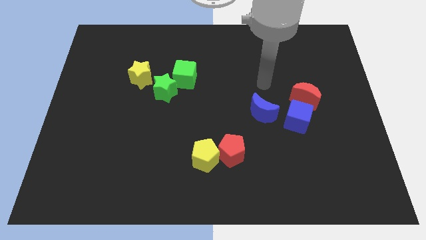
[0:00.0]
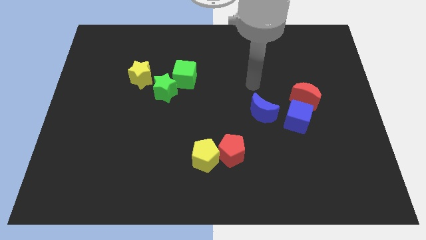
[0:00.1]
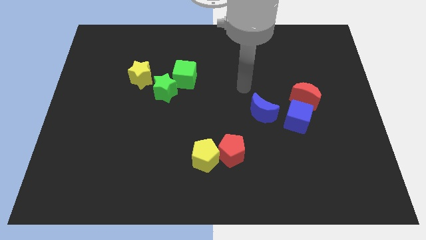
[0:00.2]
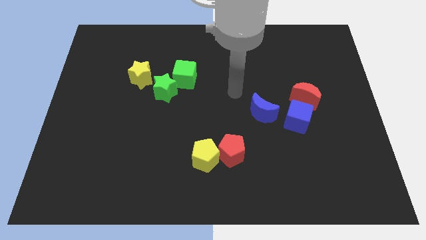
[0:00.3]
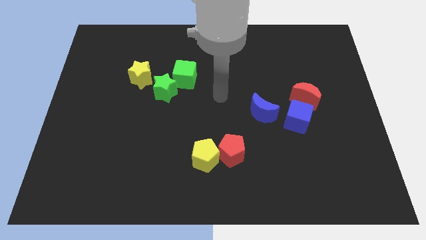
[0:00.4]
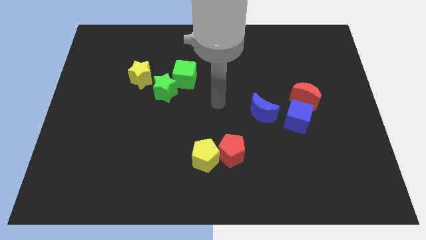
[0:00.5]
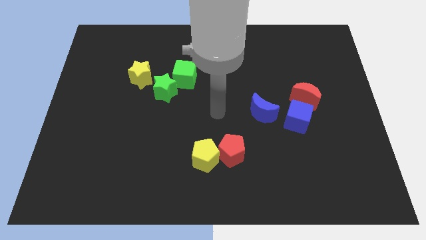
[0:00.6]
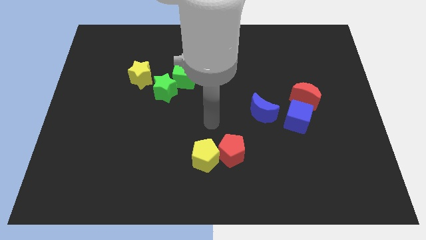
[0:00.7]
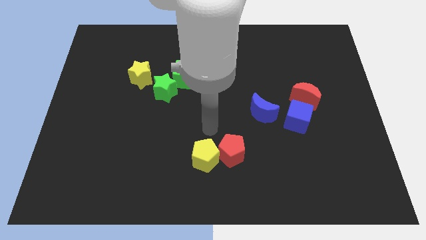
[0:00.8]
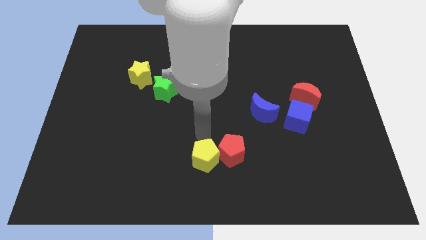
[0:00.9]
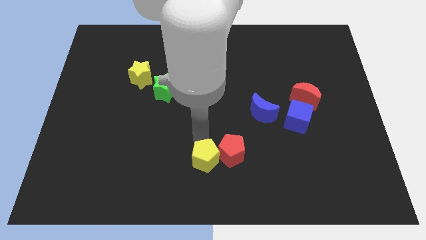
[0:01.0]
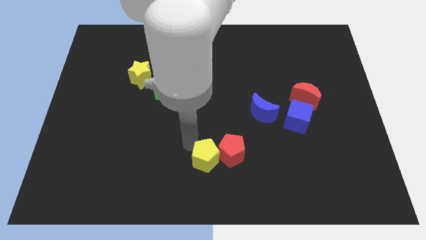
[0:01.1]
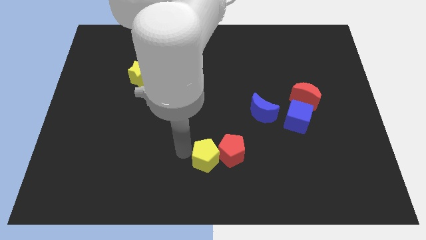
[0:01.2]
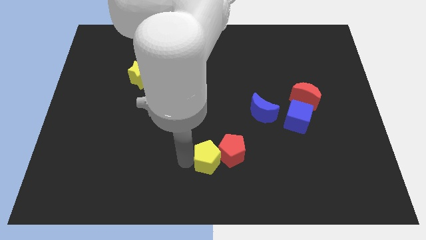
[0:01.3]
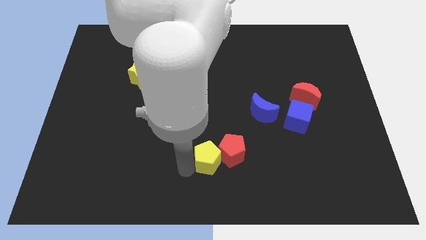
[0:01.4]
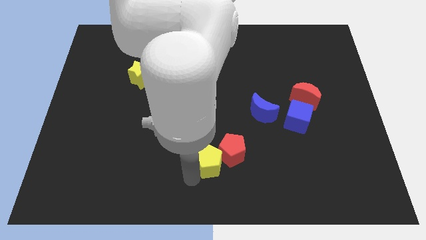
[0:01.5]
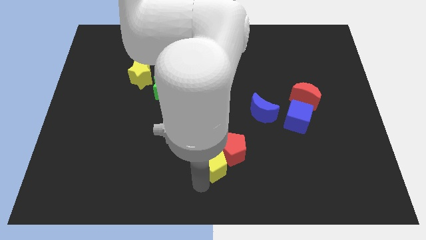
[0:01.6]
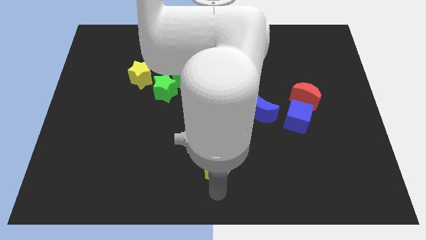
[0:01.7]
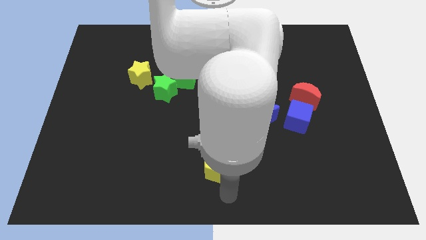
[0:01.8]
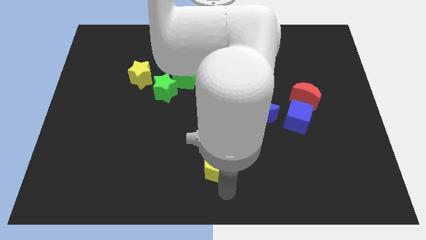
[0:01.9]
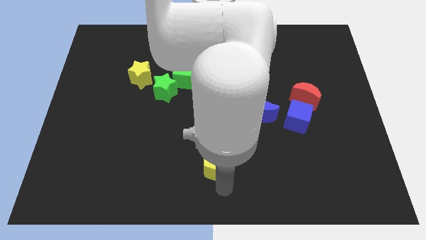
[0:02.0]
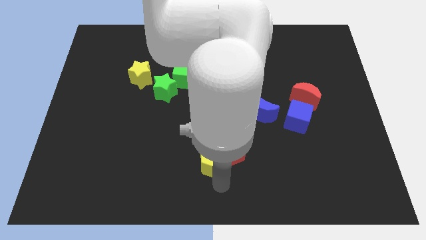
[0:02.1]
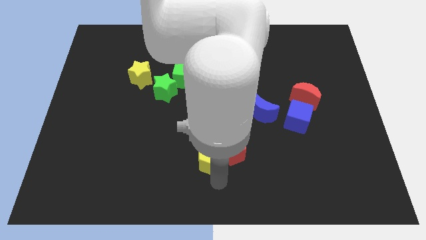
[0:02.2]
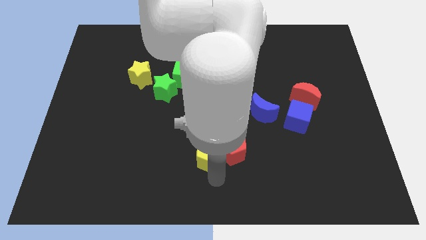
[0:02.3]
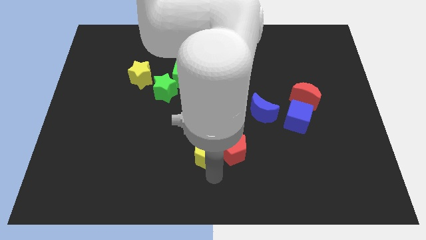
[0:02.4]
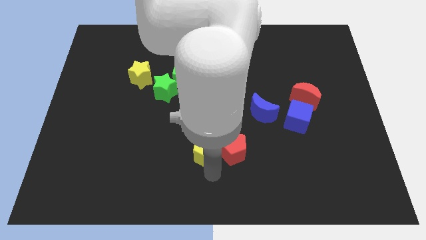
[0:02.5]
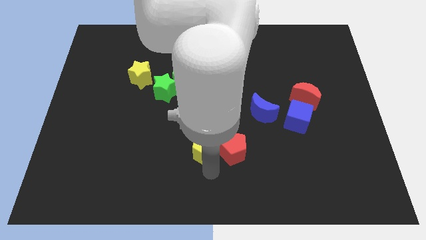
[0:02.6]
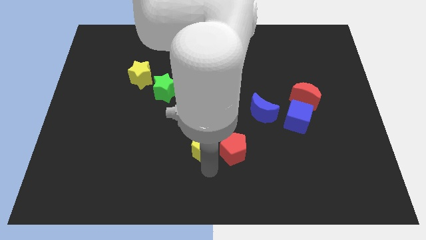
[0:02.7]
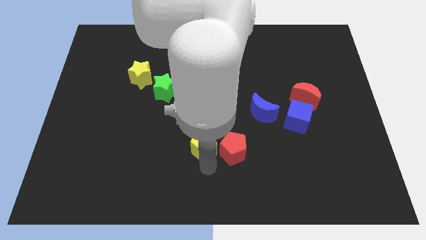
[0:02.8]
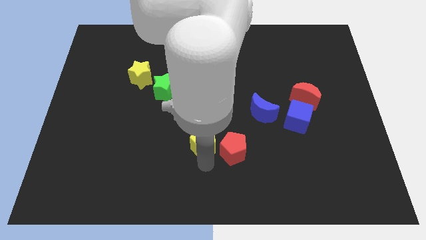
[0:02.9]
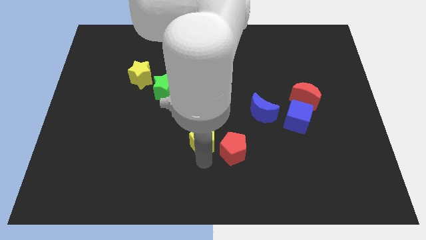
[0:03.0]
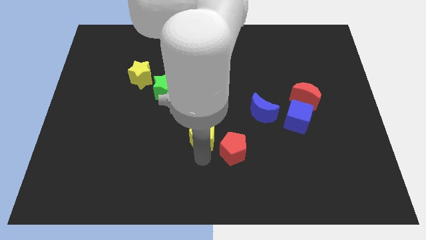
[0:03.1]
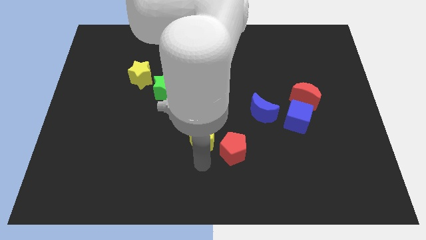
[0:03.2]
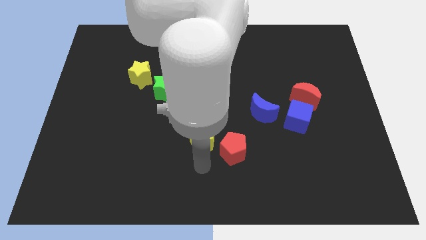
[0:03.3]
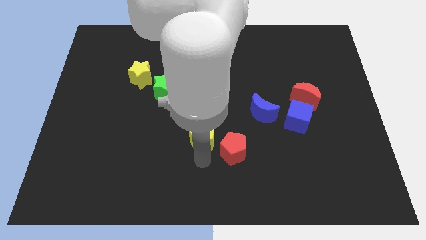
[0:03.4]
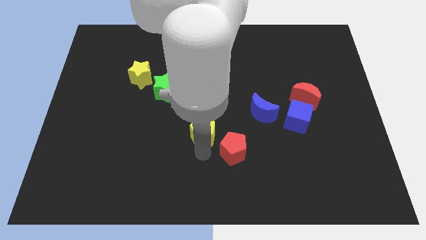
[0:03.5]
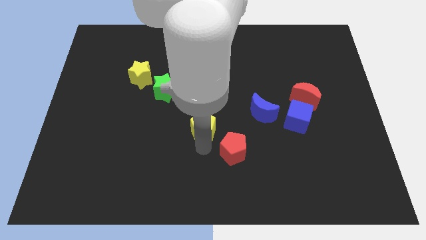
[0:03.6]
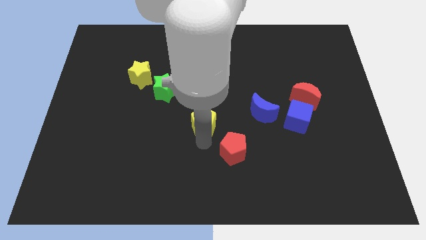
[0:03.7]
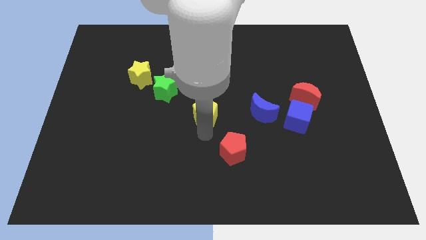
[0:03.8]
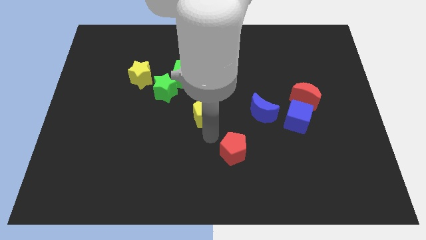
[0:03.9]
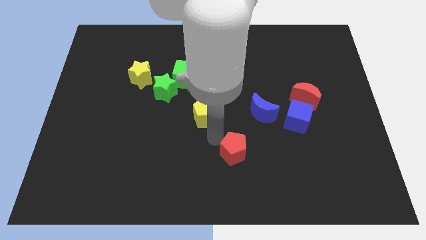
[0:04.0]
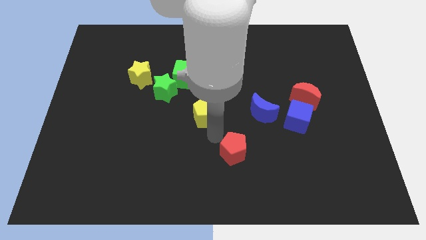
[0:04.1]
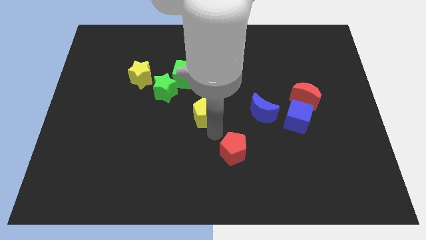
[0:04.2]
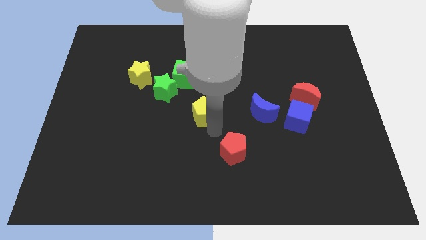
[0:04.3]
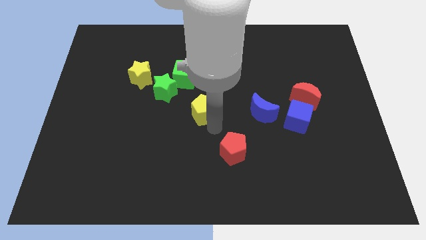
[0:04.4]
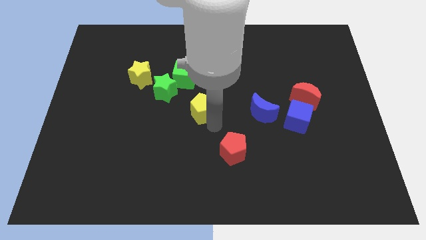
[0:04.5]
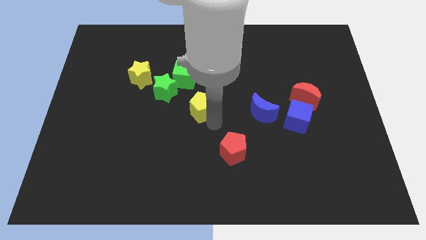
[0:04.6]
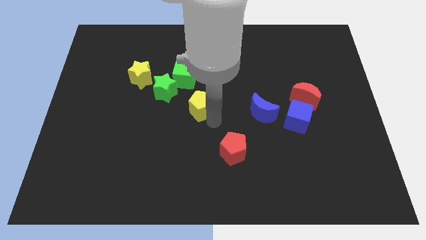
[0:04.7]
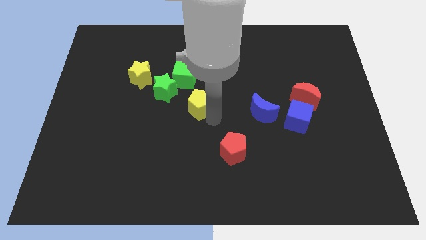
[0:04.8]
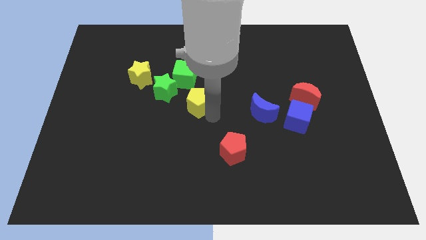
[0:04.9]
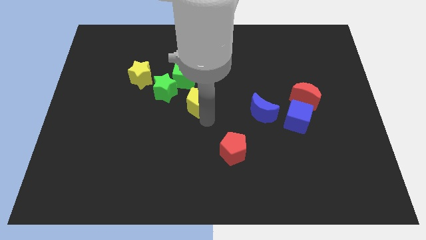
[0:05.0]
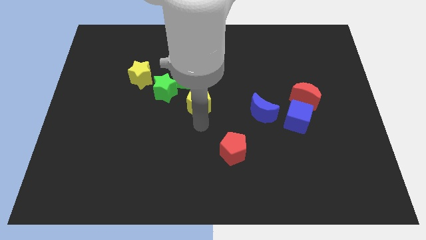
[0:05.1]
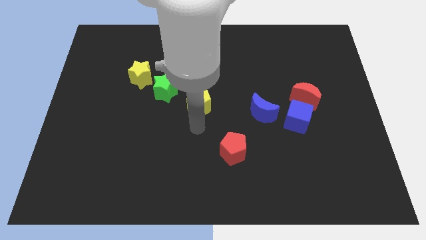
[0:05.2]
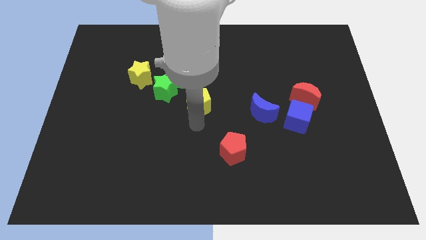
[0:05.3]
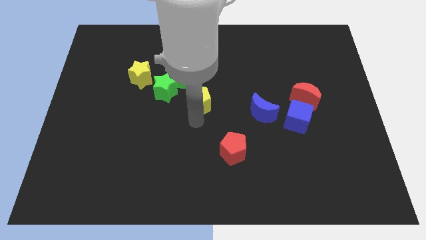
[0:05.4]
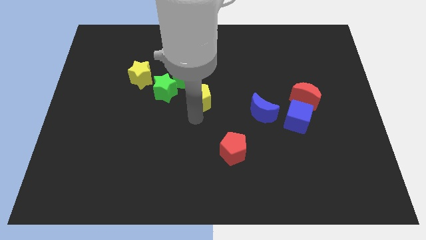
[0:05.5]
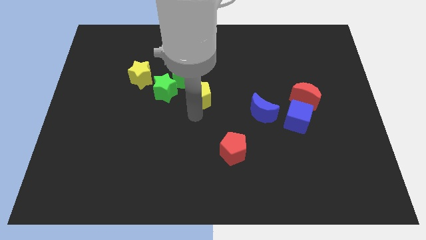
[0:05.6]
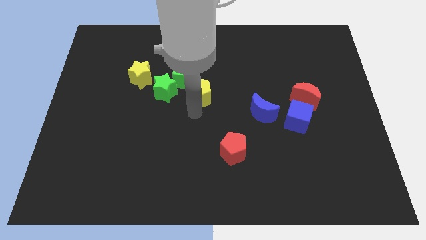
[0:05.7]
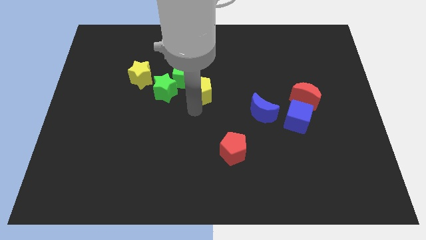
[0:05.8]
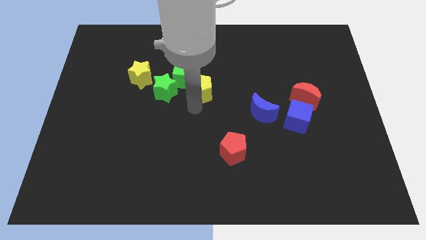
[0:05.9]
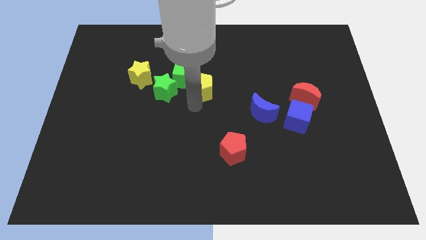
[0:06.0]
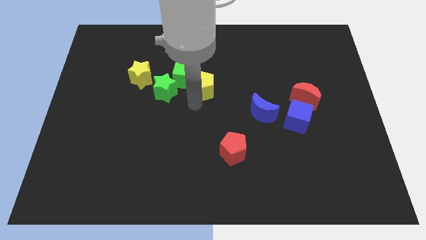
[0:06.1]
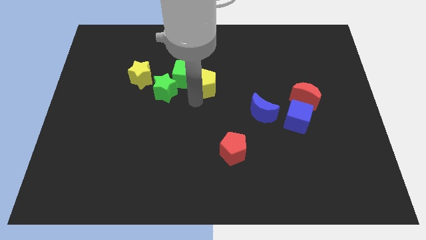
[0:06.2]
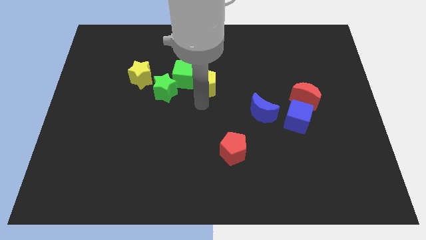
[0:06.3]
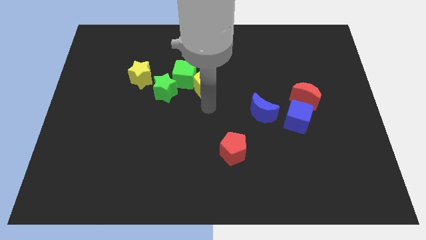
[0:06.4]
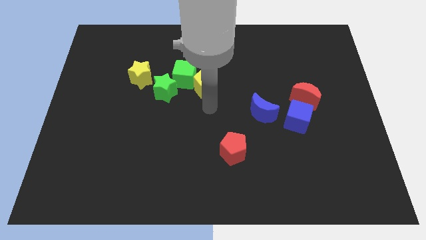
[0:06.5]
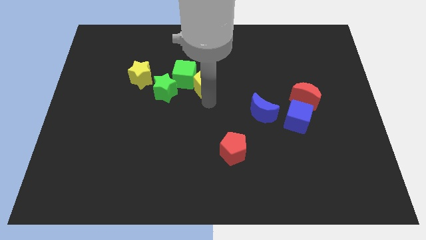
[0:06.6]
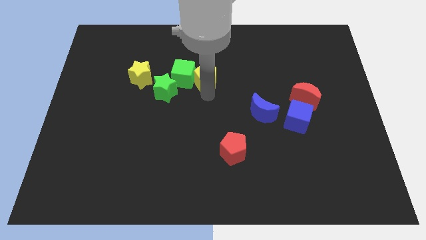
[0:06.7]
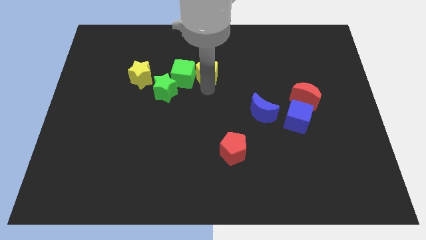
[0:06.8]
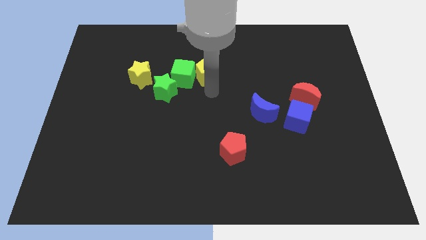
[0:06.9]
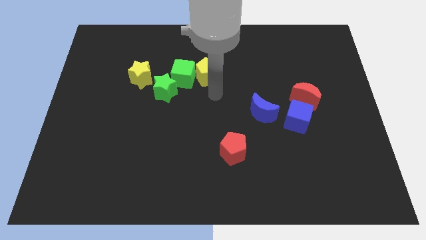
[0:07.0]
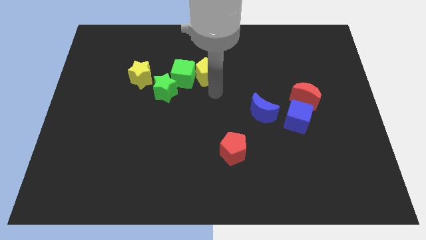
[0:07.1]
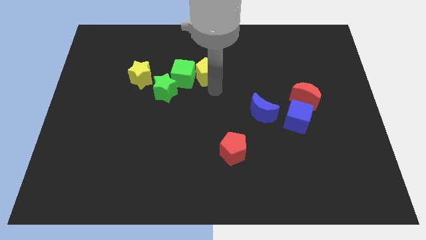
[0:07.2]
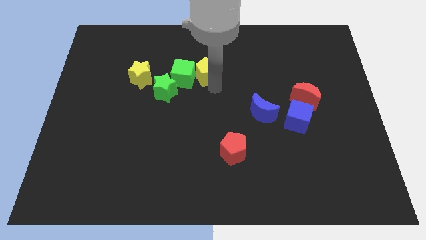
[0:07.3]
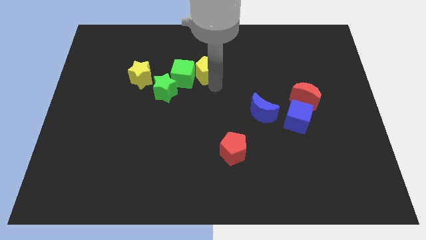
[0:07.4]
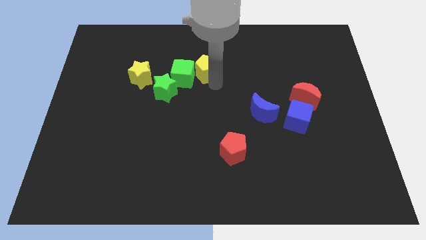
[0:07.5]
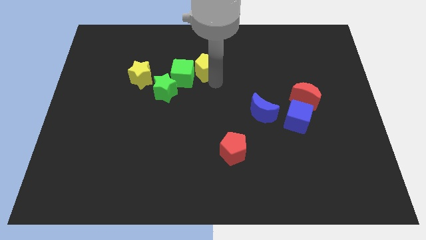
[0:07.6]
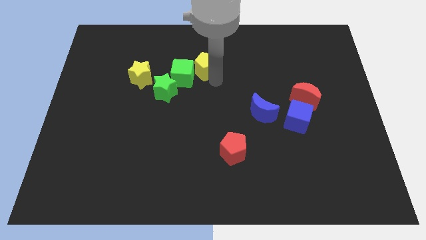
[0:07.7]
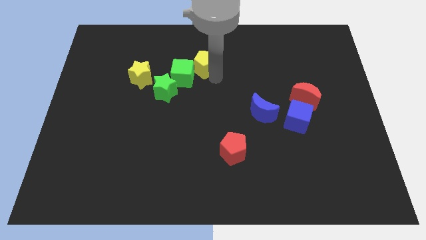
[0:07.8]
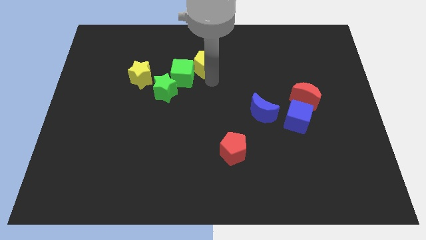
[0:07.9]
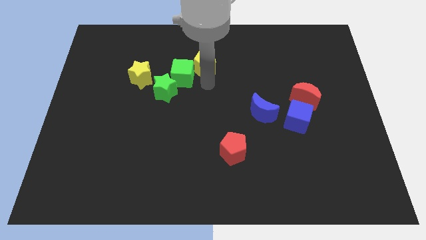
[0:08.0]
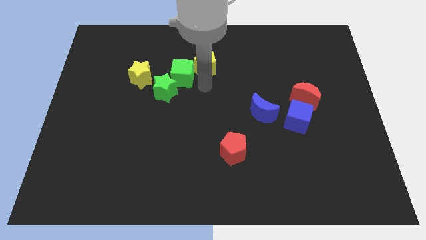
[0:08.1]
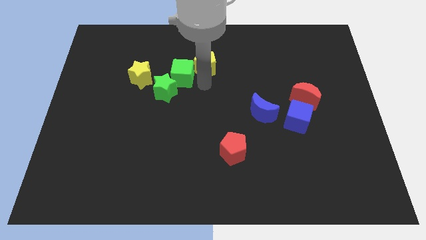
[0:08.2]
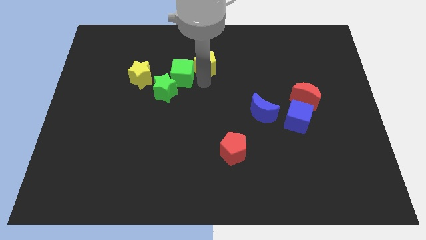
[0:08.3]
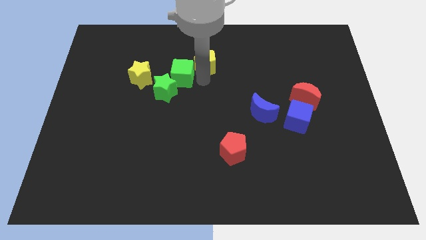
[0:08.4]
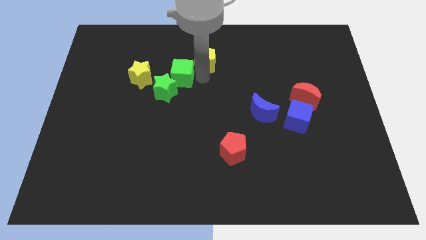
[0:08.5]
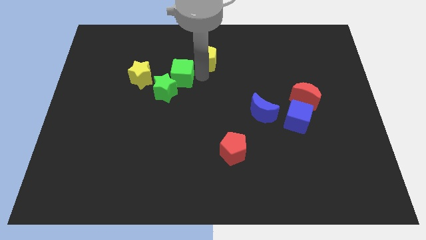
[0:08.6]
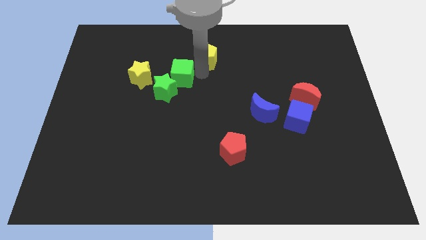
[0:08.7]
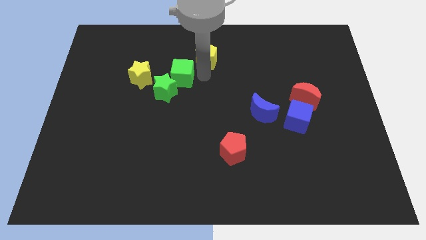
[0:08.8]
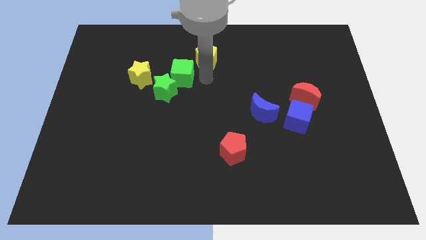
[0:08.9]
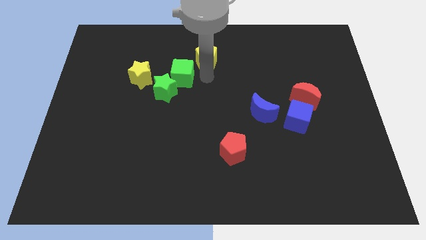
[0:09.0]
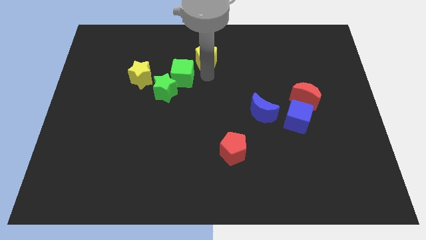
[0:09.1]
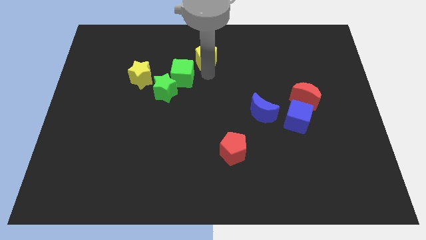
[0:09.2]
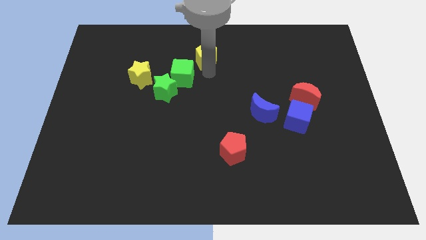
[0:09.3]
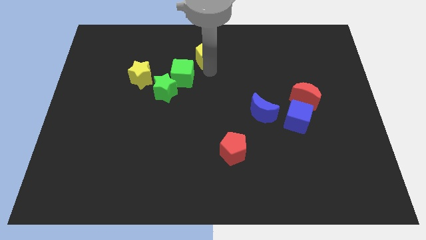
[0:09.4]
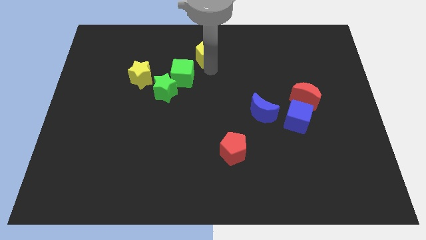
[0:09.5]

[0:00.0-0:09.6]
slide the yellow pentagon to the towards your base
